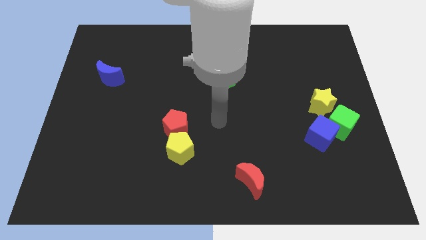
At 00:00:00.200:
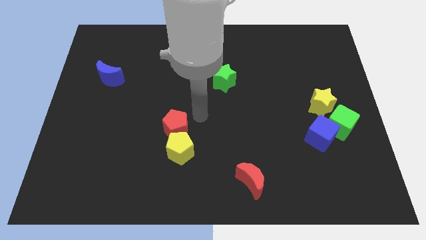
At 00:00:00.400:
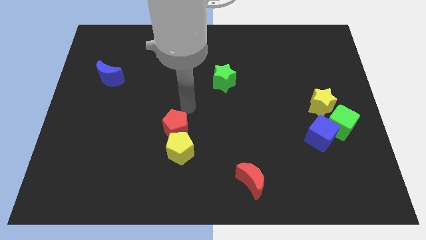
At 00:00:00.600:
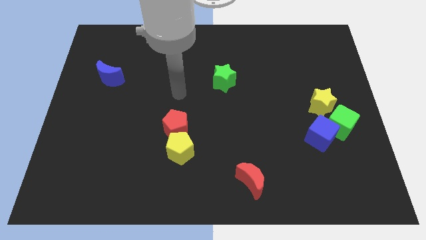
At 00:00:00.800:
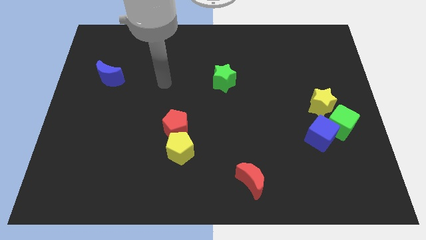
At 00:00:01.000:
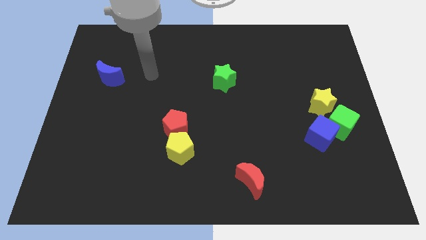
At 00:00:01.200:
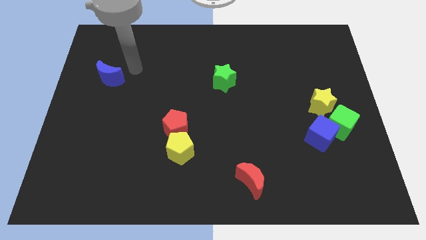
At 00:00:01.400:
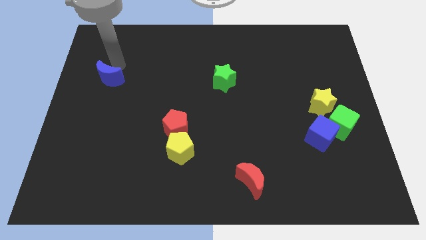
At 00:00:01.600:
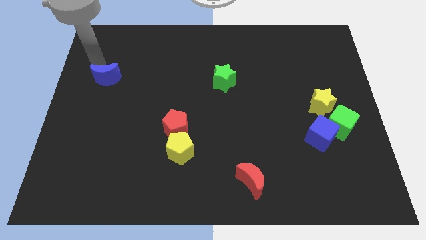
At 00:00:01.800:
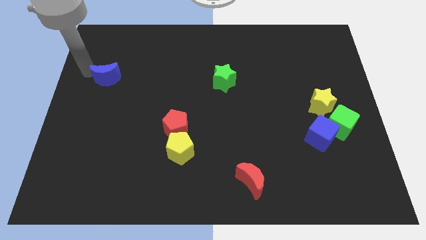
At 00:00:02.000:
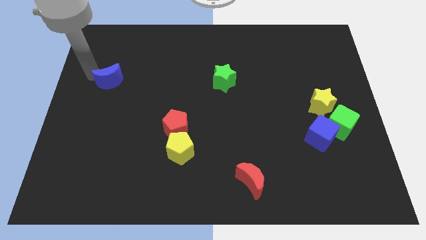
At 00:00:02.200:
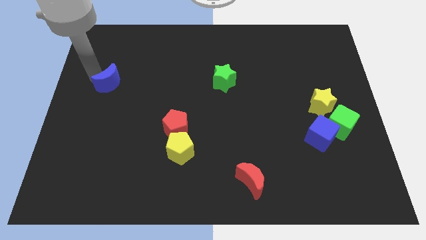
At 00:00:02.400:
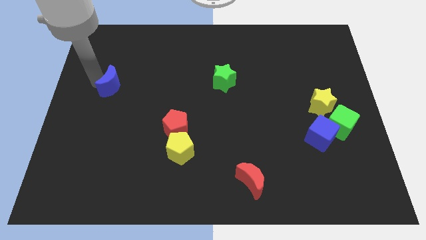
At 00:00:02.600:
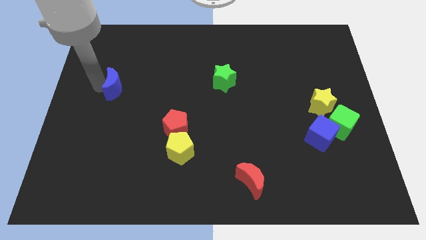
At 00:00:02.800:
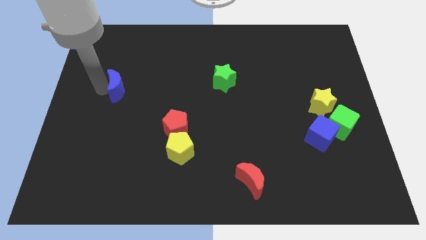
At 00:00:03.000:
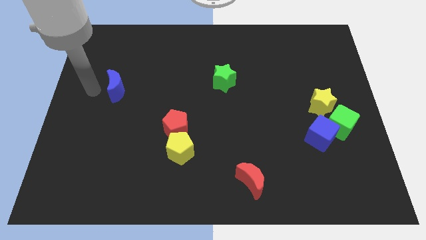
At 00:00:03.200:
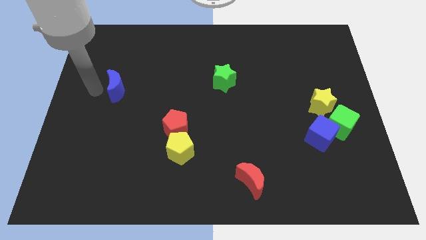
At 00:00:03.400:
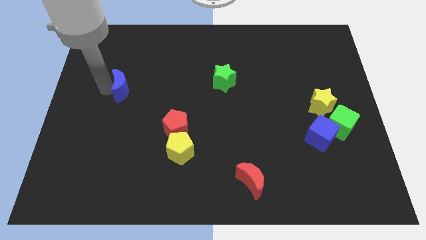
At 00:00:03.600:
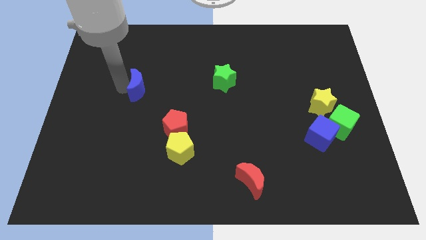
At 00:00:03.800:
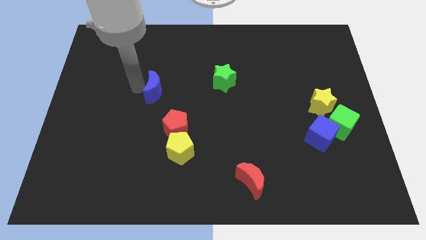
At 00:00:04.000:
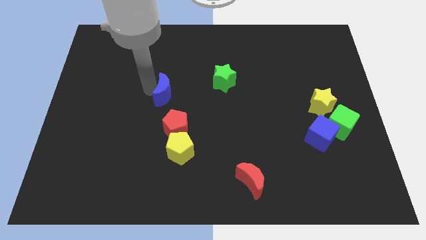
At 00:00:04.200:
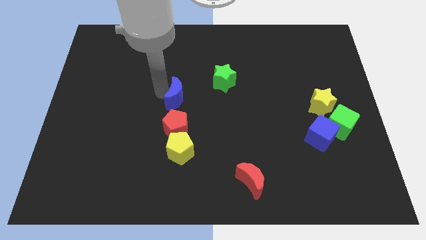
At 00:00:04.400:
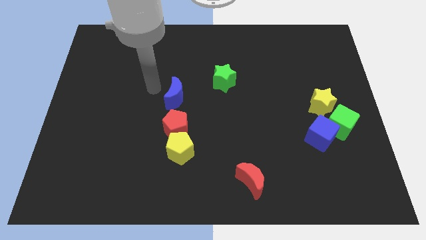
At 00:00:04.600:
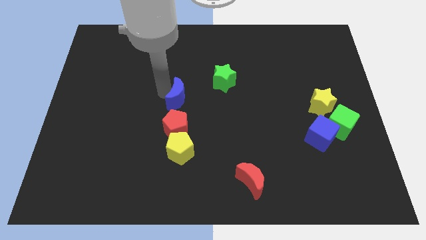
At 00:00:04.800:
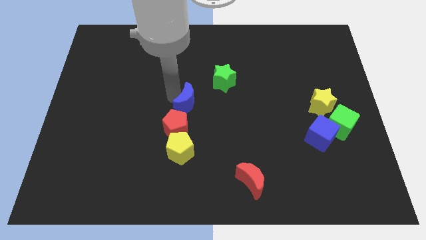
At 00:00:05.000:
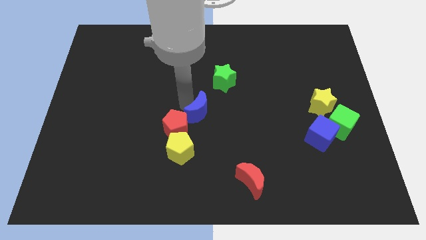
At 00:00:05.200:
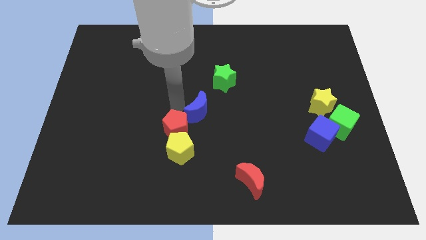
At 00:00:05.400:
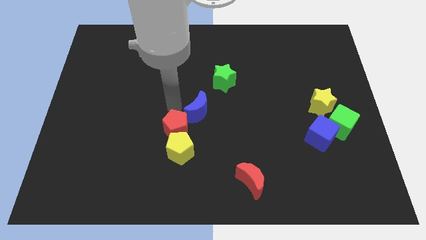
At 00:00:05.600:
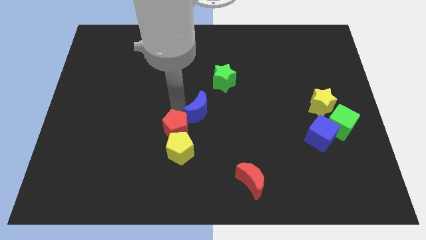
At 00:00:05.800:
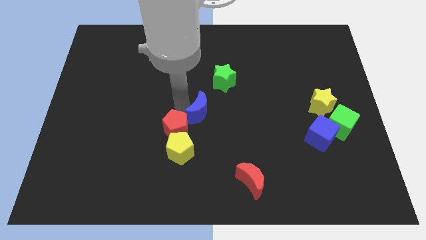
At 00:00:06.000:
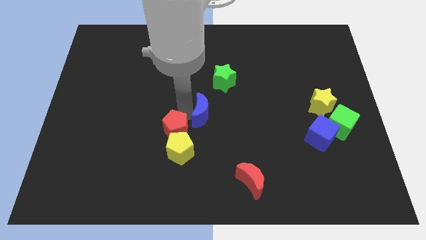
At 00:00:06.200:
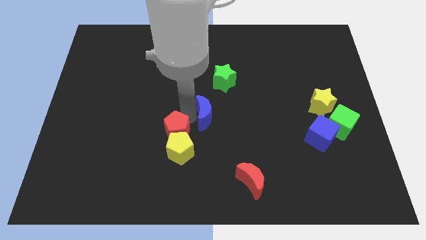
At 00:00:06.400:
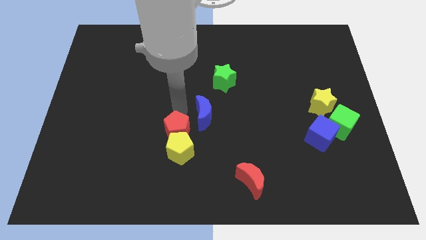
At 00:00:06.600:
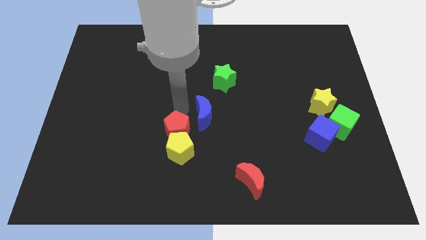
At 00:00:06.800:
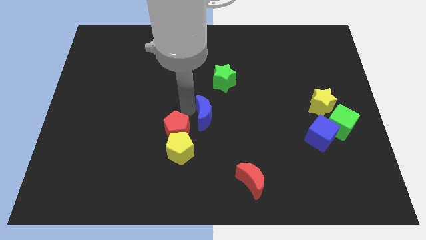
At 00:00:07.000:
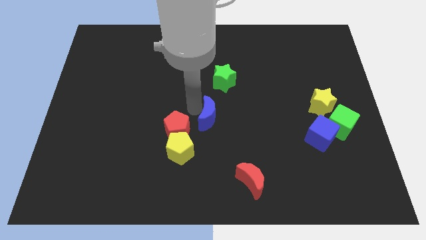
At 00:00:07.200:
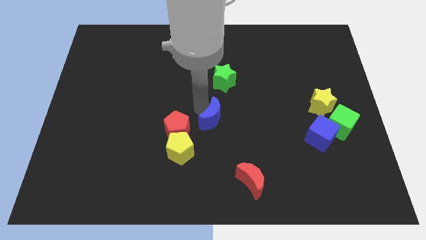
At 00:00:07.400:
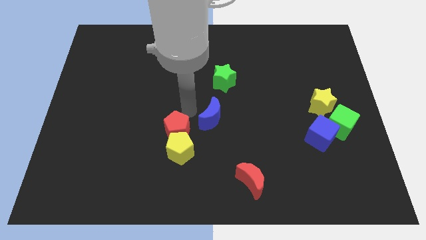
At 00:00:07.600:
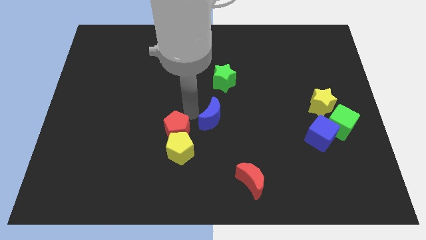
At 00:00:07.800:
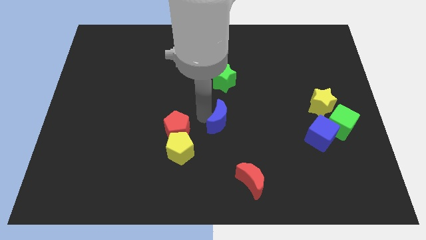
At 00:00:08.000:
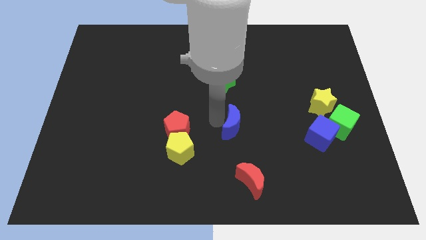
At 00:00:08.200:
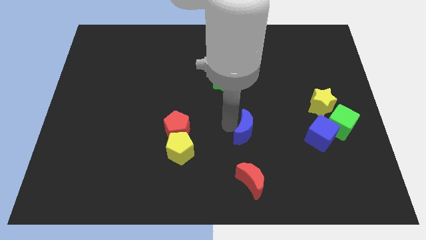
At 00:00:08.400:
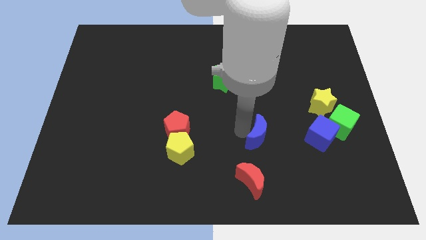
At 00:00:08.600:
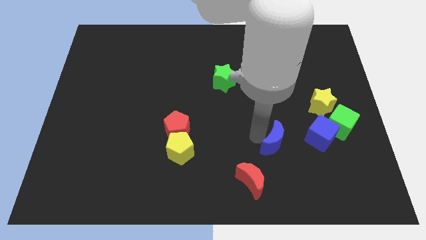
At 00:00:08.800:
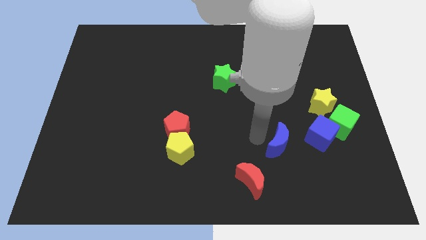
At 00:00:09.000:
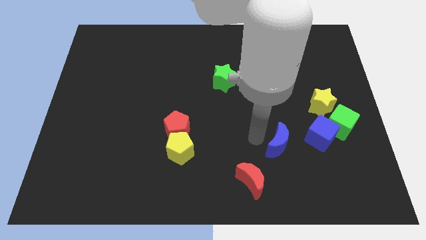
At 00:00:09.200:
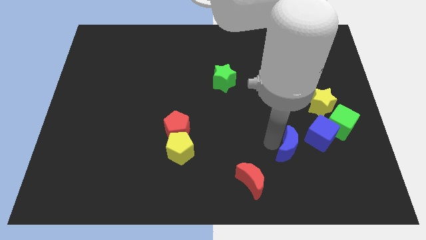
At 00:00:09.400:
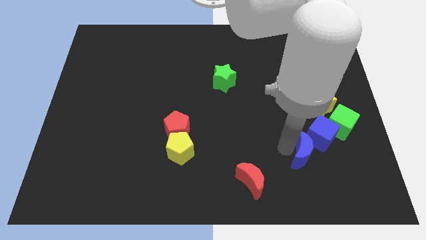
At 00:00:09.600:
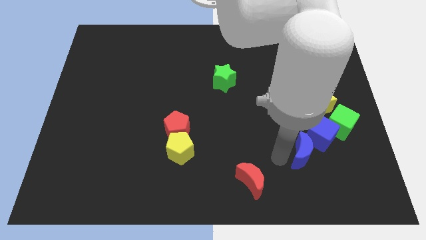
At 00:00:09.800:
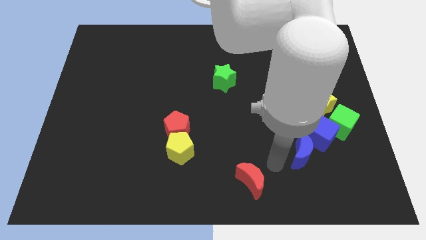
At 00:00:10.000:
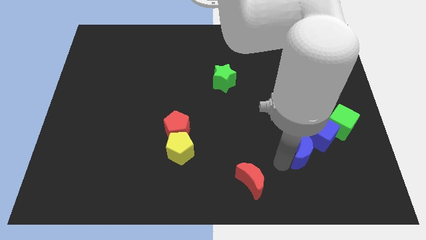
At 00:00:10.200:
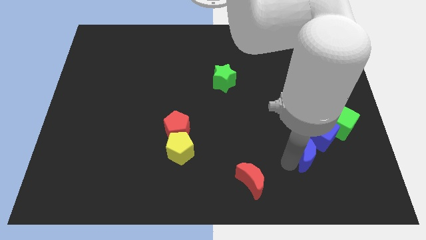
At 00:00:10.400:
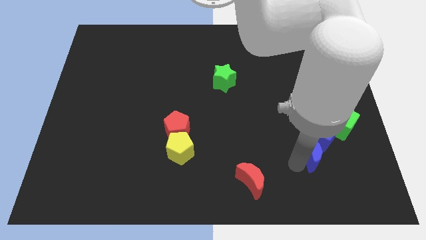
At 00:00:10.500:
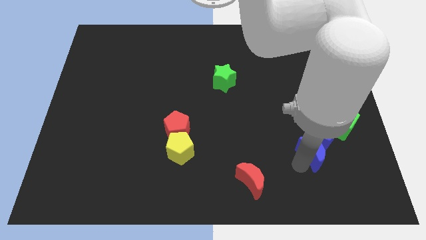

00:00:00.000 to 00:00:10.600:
move the blue moon to the bottom side of the yellow star

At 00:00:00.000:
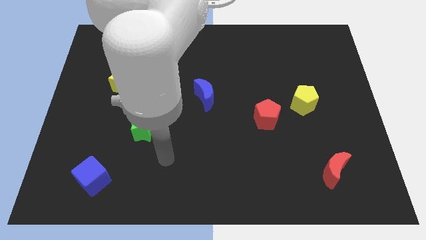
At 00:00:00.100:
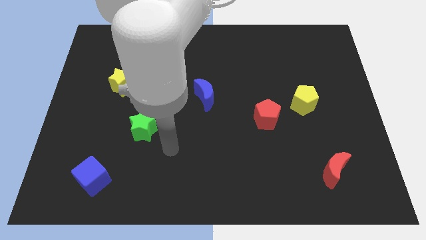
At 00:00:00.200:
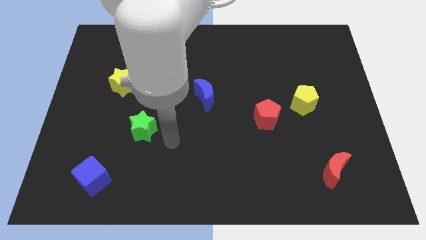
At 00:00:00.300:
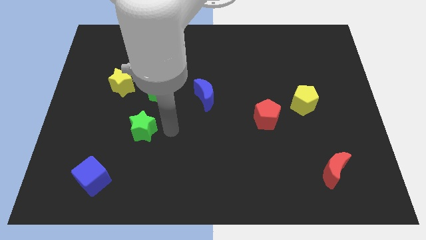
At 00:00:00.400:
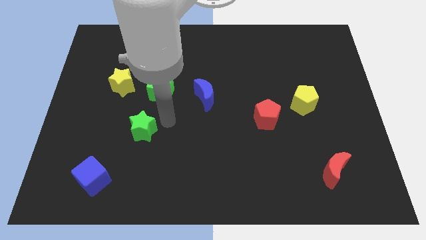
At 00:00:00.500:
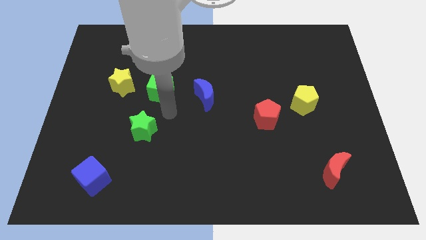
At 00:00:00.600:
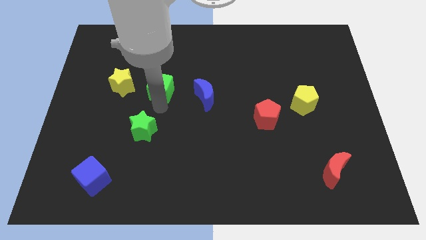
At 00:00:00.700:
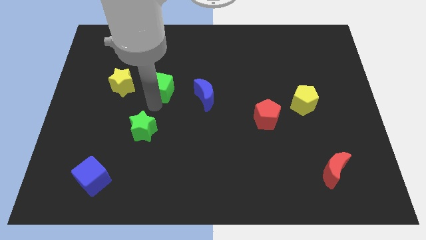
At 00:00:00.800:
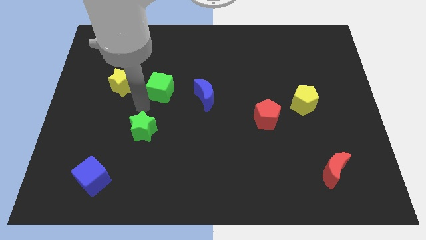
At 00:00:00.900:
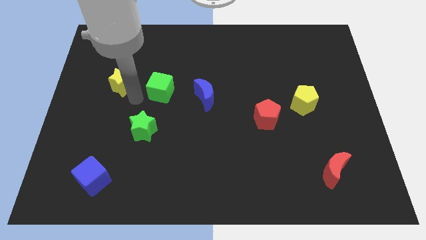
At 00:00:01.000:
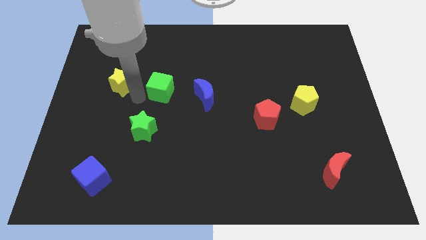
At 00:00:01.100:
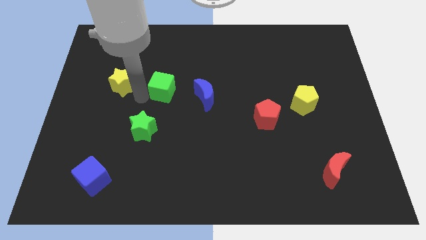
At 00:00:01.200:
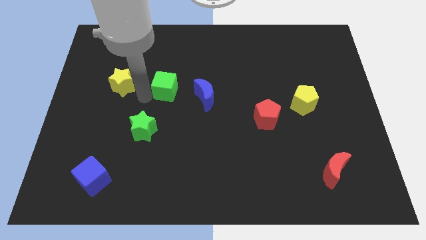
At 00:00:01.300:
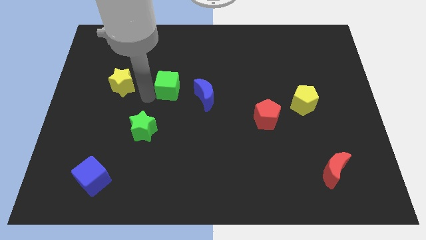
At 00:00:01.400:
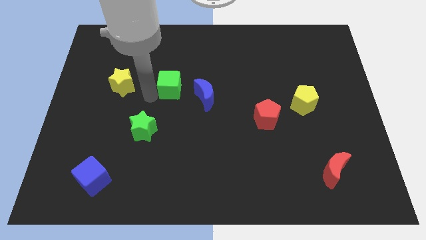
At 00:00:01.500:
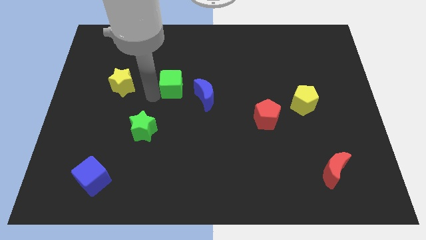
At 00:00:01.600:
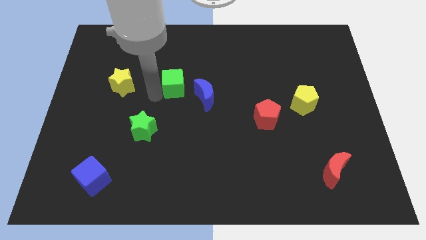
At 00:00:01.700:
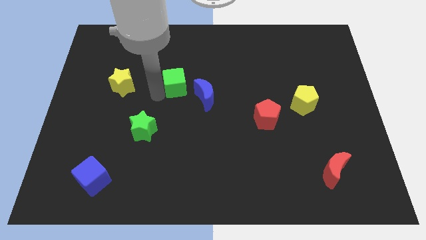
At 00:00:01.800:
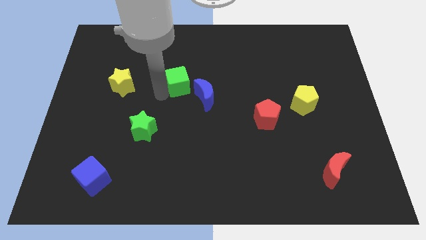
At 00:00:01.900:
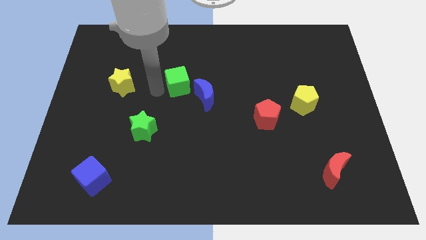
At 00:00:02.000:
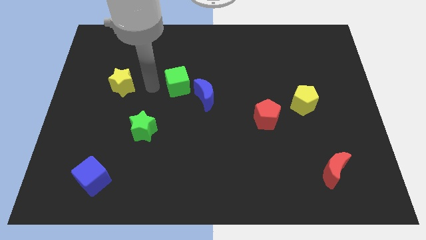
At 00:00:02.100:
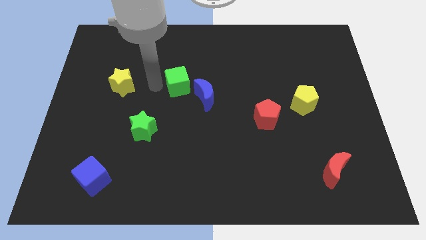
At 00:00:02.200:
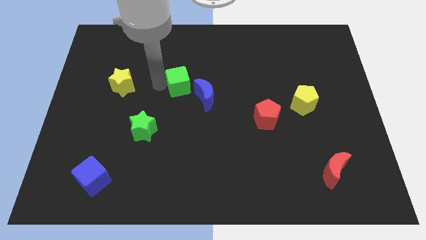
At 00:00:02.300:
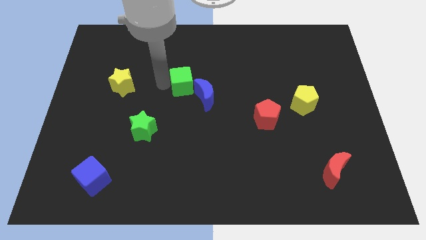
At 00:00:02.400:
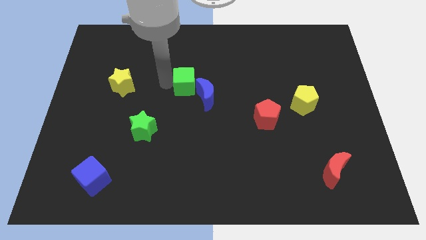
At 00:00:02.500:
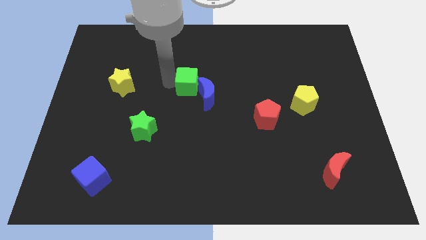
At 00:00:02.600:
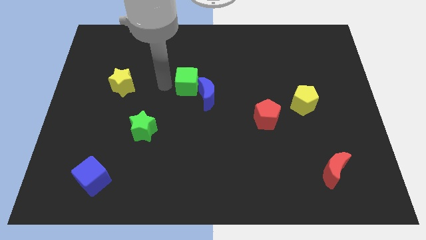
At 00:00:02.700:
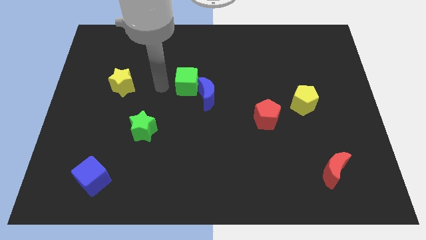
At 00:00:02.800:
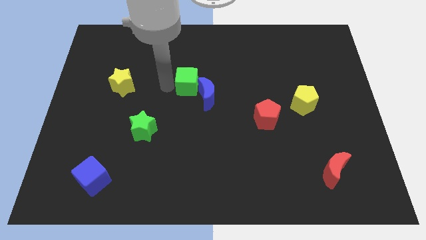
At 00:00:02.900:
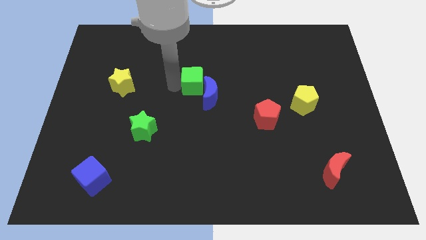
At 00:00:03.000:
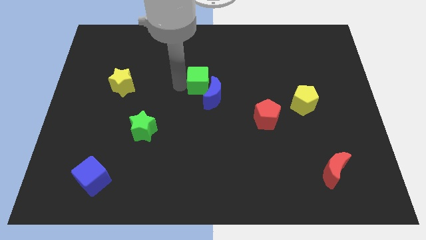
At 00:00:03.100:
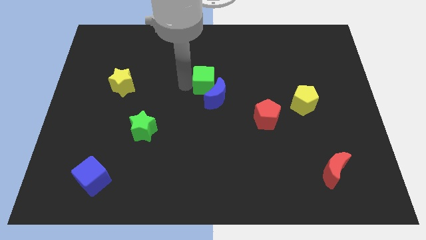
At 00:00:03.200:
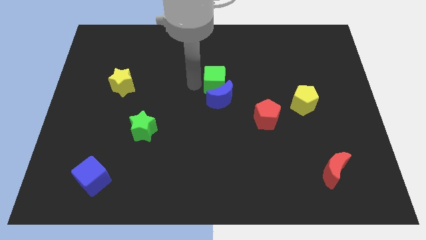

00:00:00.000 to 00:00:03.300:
put the green cube to the top right side of the blue moon
